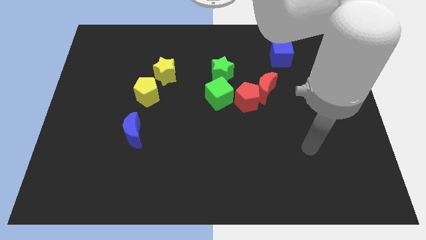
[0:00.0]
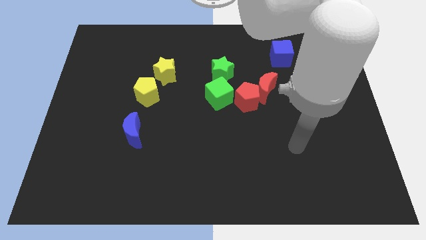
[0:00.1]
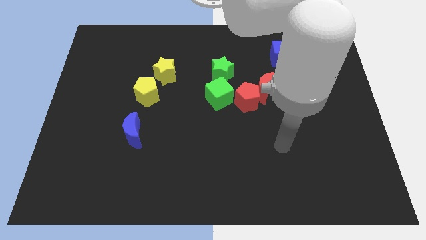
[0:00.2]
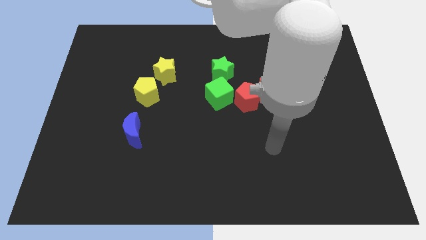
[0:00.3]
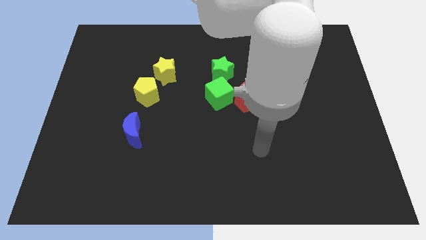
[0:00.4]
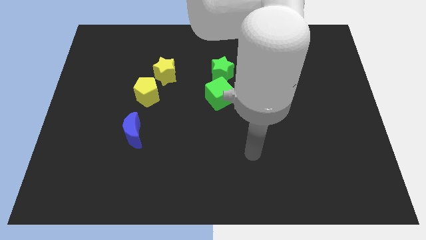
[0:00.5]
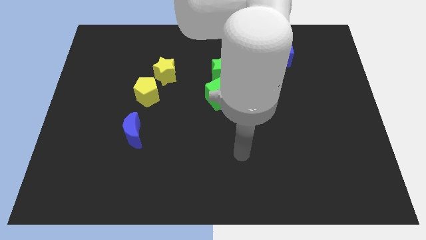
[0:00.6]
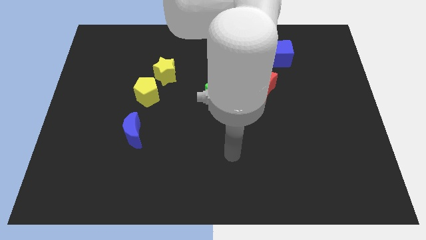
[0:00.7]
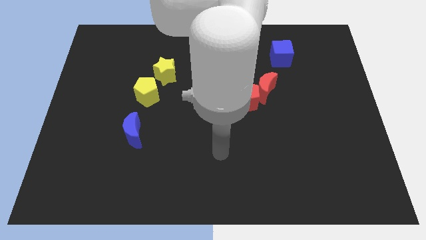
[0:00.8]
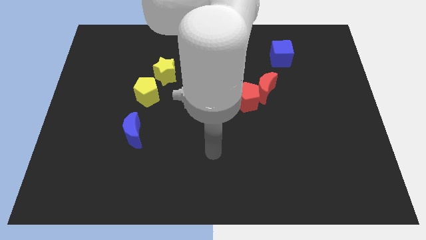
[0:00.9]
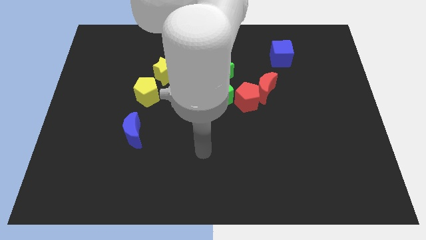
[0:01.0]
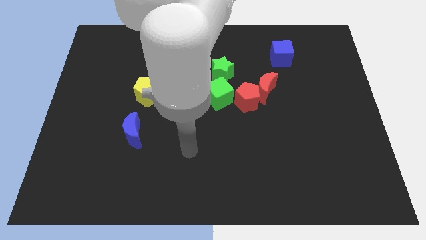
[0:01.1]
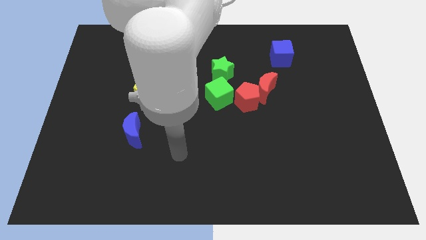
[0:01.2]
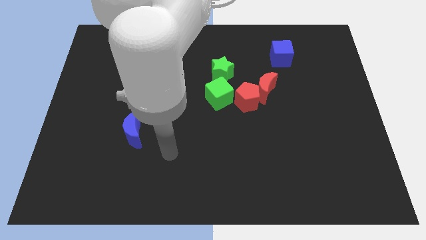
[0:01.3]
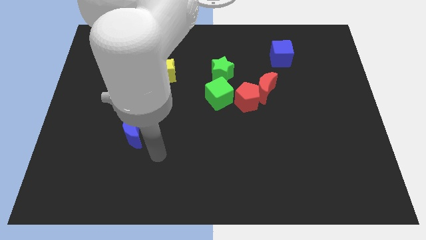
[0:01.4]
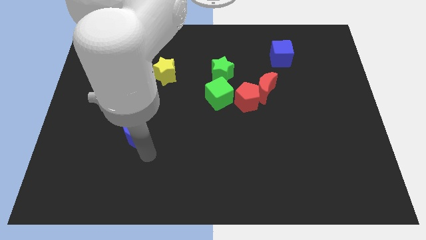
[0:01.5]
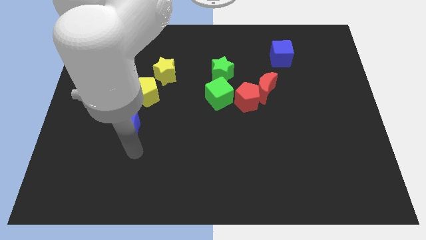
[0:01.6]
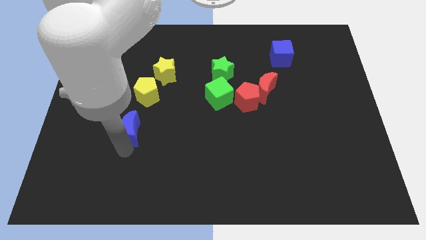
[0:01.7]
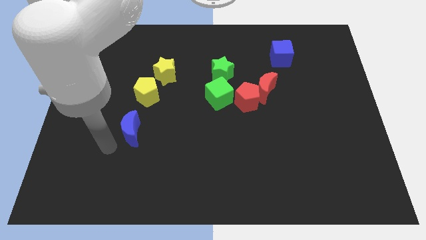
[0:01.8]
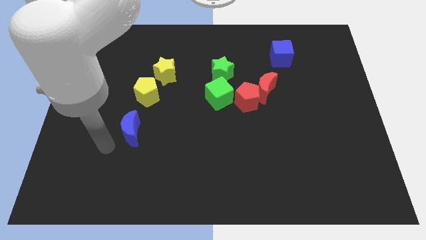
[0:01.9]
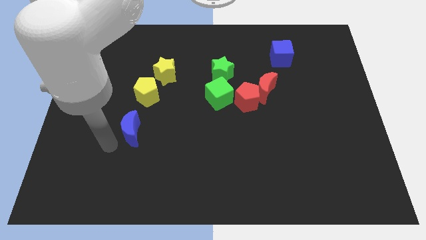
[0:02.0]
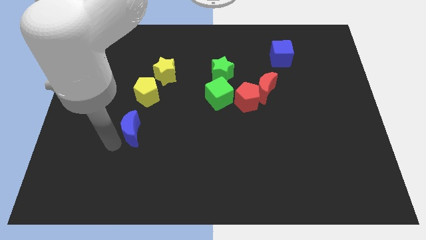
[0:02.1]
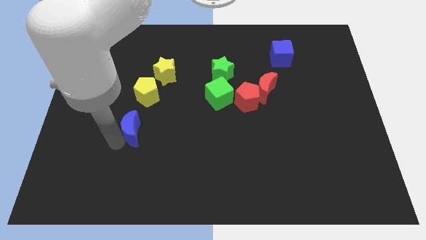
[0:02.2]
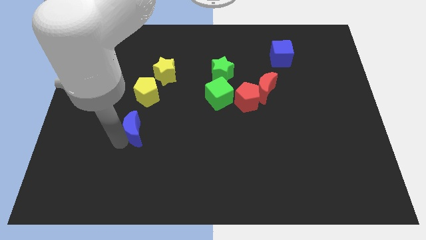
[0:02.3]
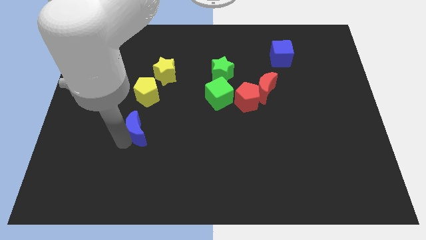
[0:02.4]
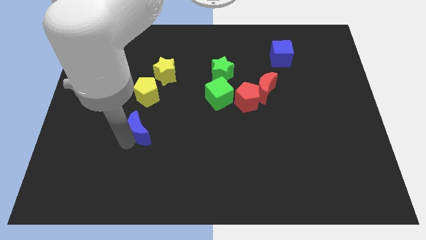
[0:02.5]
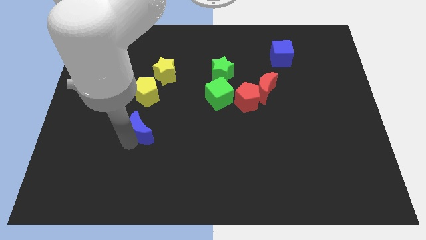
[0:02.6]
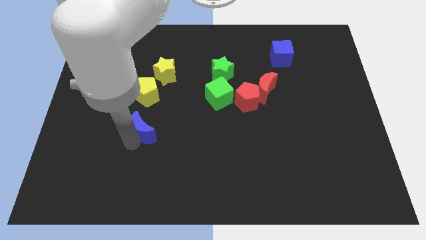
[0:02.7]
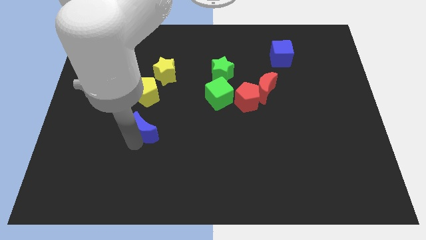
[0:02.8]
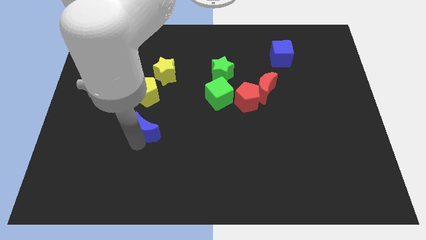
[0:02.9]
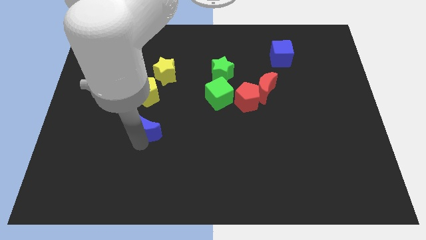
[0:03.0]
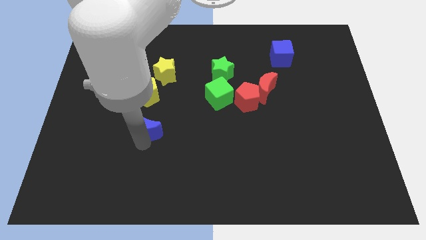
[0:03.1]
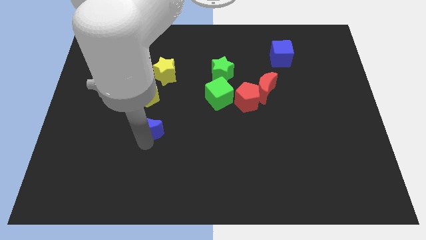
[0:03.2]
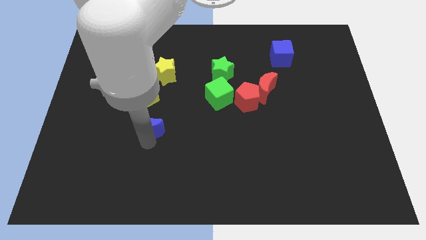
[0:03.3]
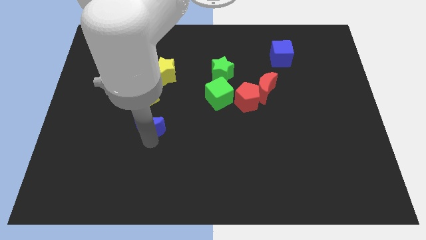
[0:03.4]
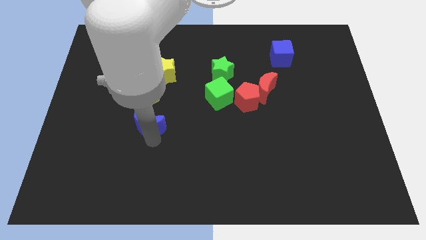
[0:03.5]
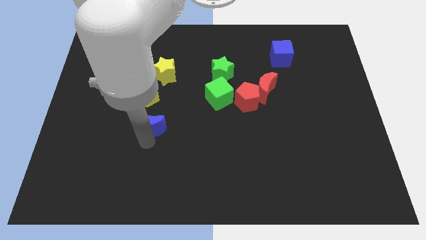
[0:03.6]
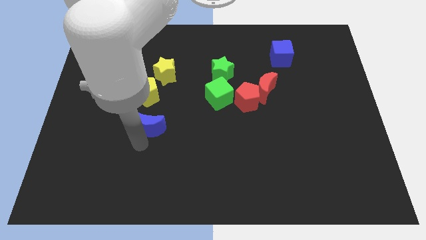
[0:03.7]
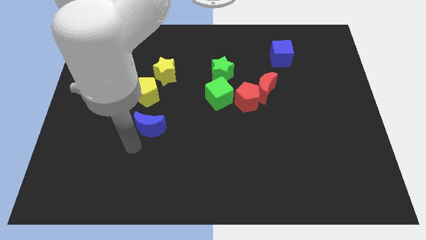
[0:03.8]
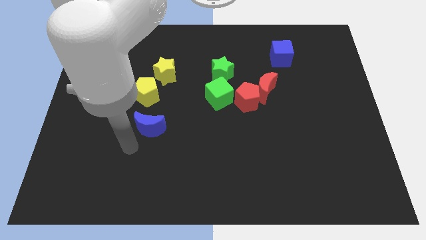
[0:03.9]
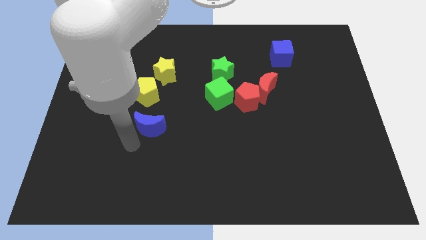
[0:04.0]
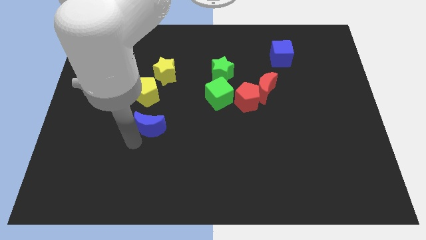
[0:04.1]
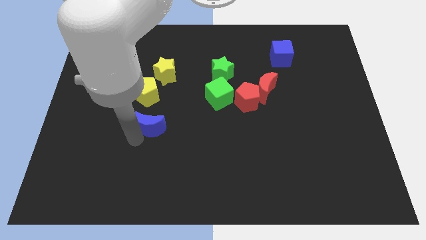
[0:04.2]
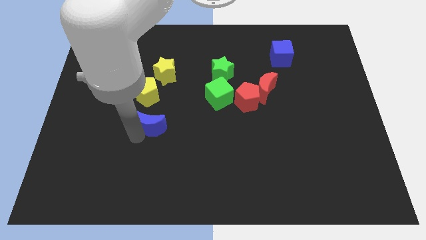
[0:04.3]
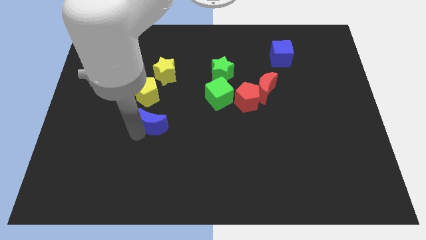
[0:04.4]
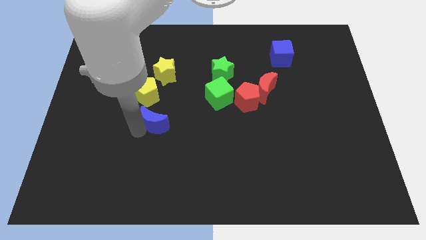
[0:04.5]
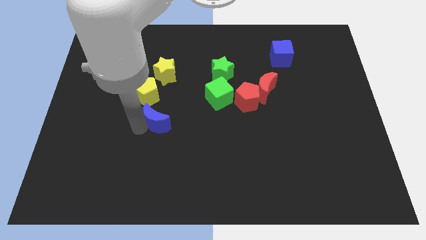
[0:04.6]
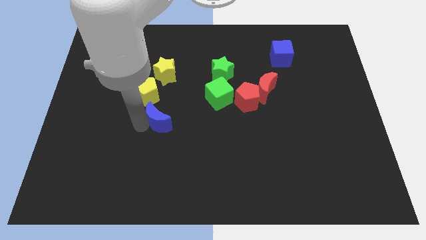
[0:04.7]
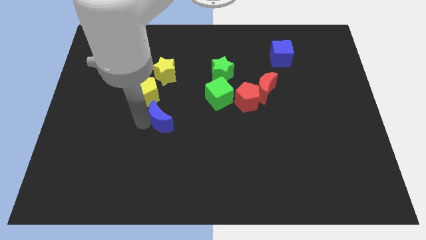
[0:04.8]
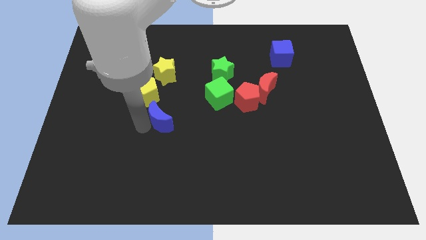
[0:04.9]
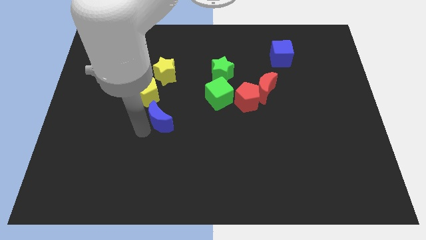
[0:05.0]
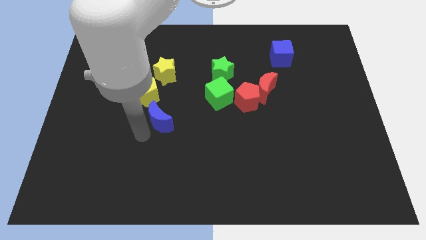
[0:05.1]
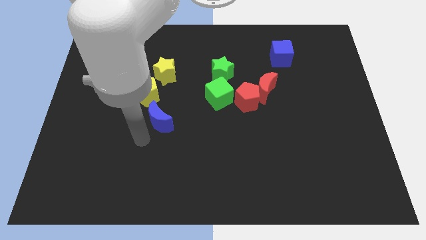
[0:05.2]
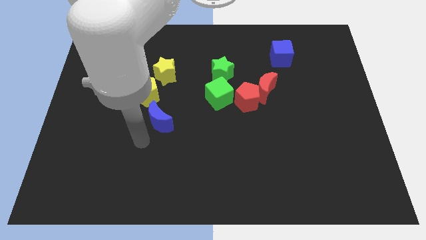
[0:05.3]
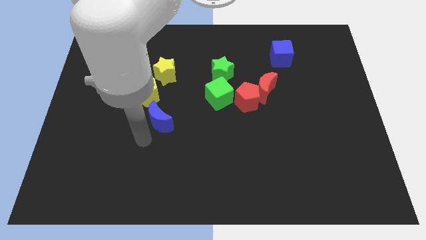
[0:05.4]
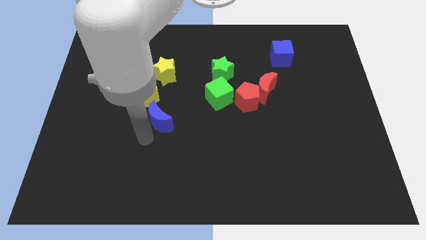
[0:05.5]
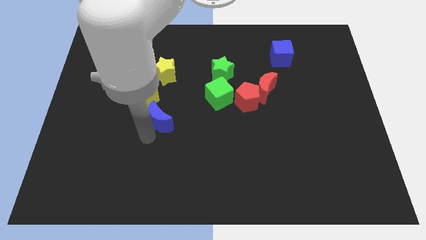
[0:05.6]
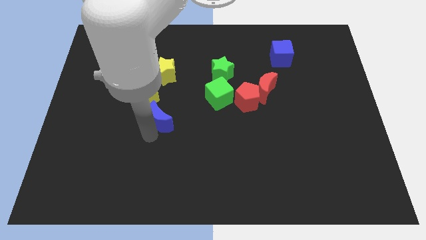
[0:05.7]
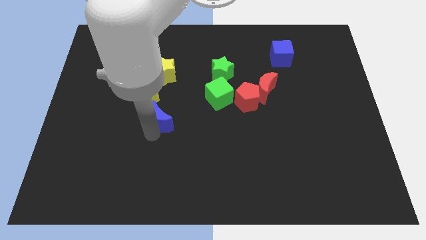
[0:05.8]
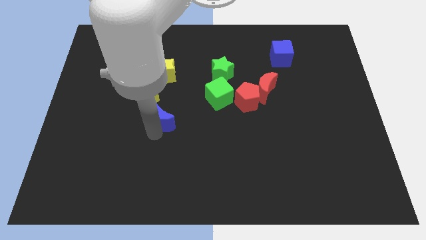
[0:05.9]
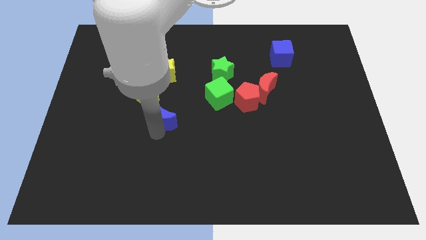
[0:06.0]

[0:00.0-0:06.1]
slide the blue moon a little bit up and to the right

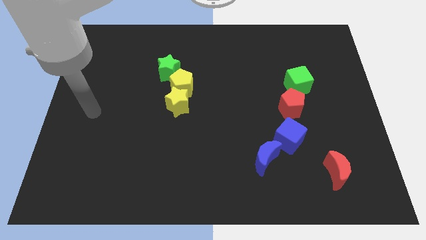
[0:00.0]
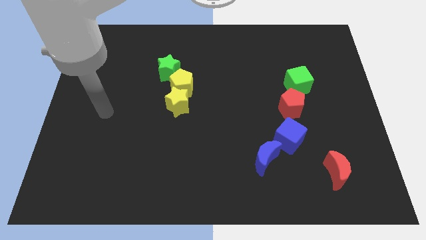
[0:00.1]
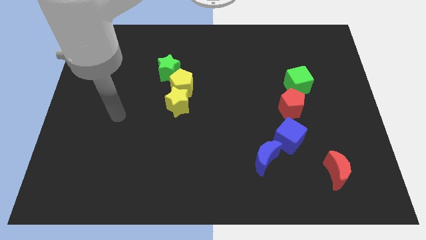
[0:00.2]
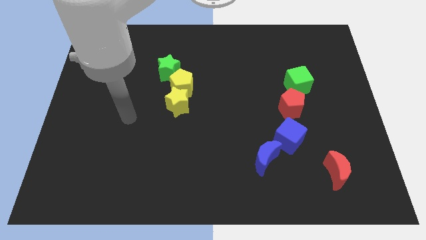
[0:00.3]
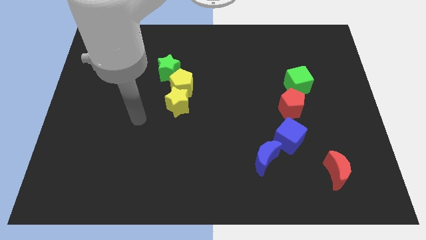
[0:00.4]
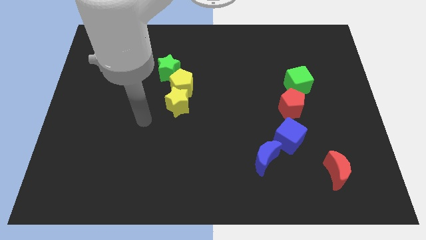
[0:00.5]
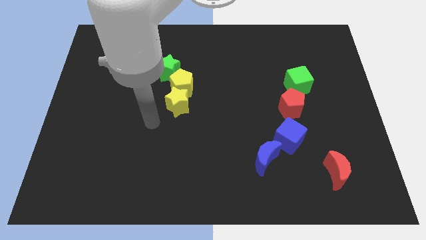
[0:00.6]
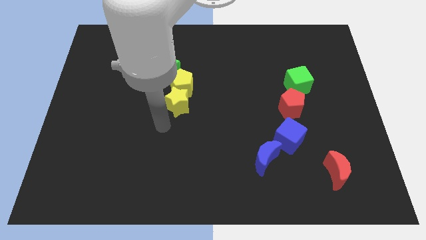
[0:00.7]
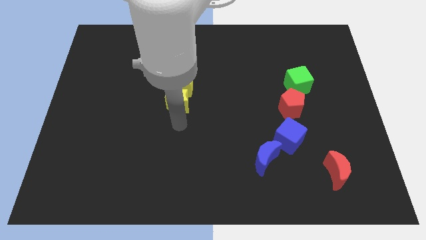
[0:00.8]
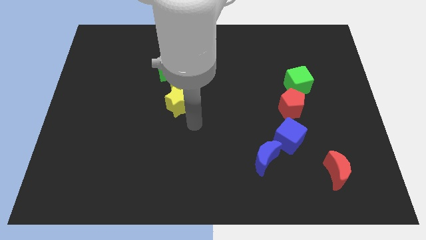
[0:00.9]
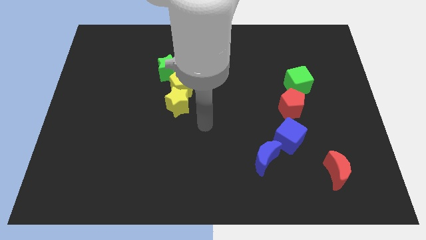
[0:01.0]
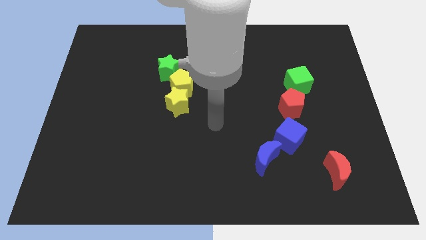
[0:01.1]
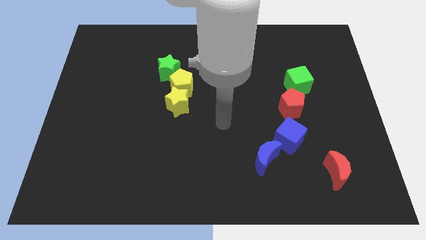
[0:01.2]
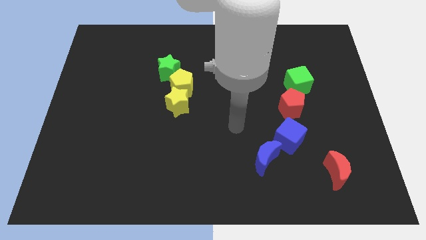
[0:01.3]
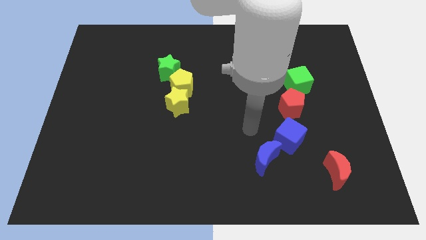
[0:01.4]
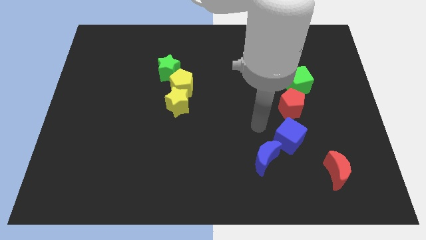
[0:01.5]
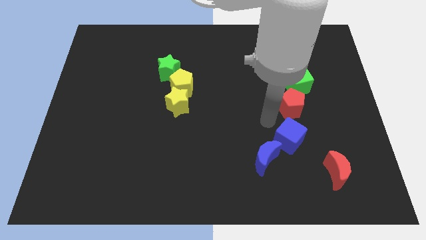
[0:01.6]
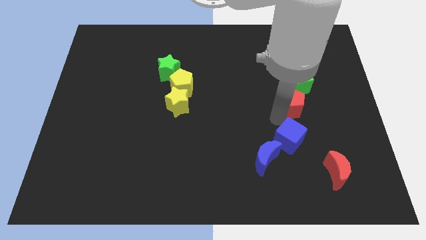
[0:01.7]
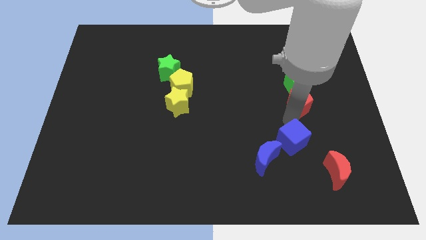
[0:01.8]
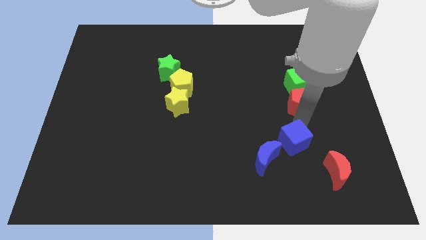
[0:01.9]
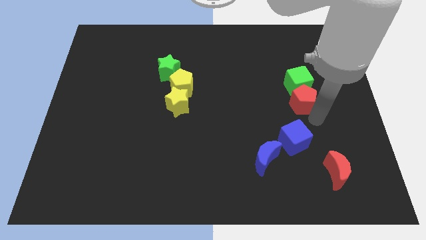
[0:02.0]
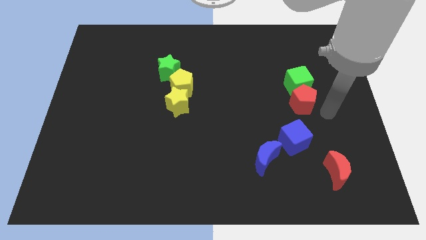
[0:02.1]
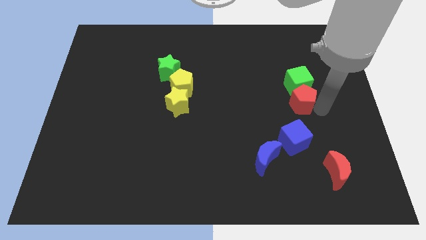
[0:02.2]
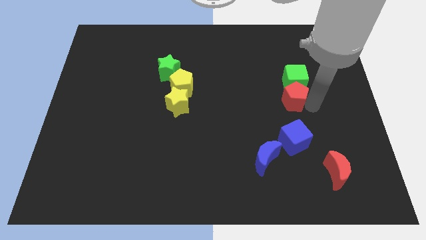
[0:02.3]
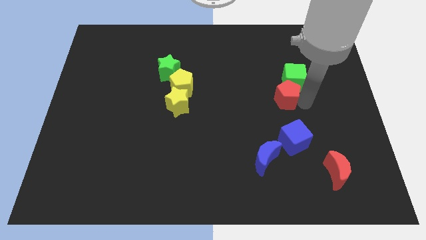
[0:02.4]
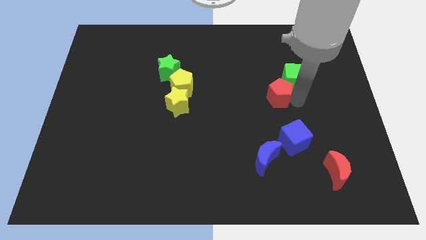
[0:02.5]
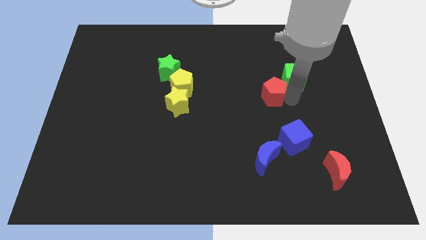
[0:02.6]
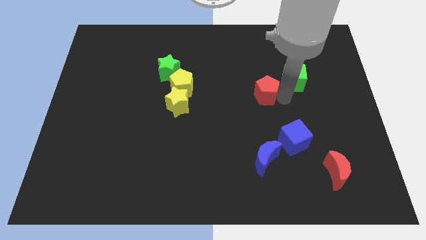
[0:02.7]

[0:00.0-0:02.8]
slightly slide the red pentagon upwards and then left
